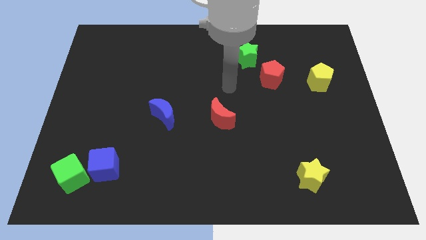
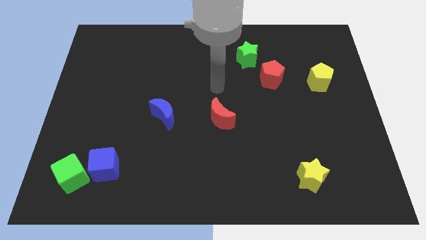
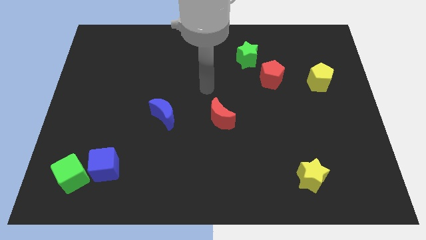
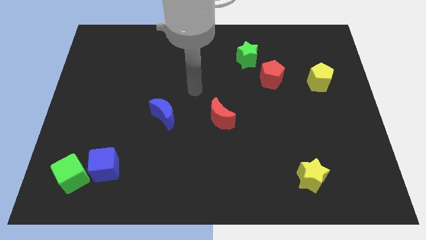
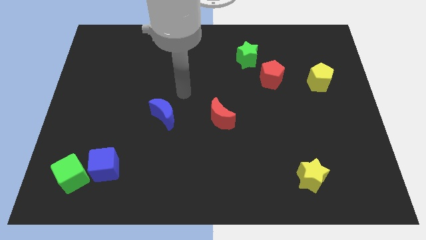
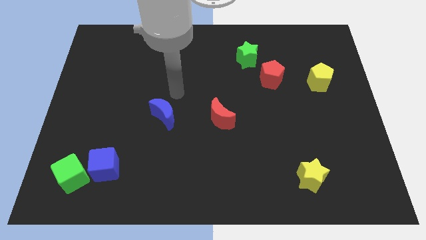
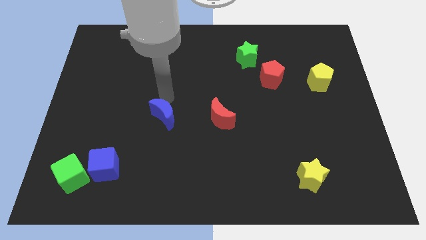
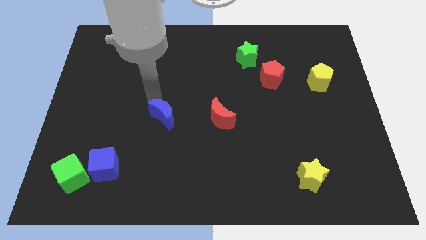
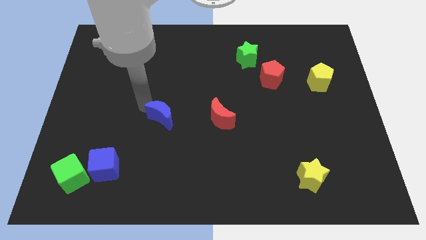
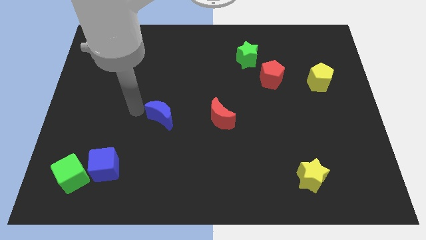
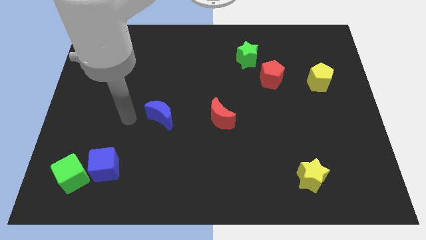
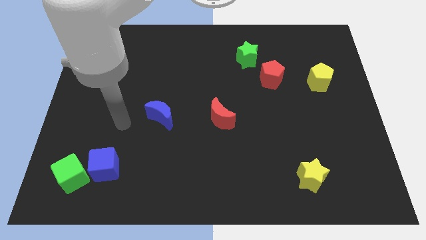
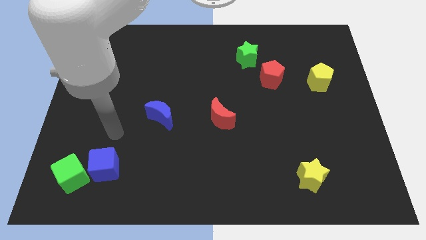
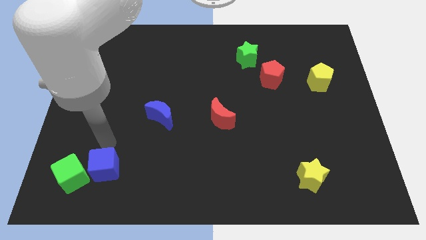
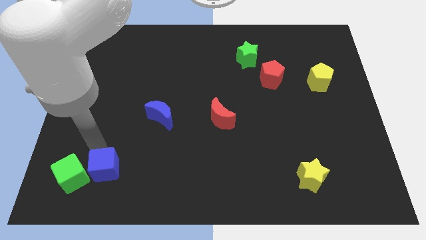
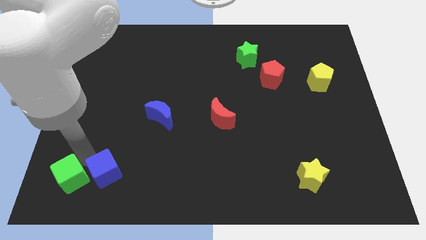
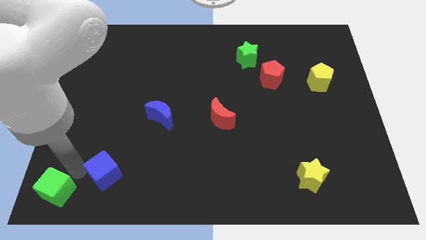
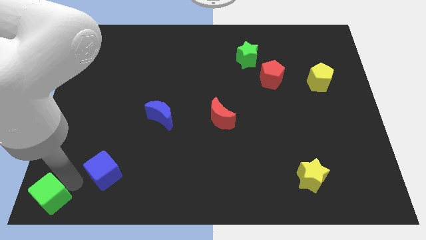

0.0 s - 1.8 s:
pull the blue cube apart from the green cube

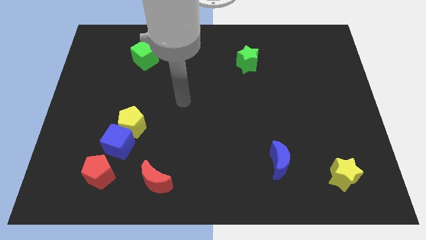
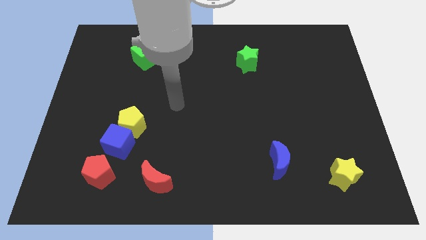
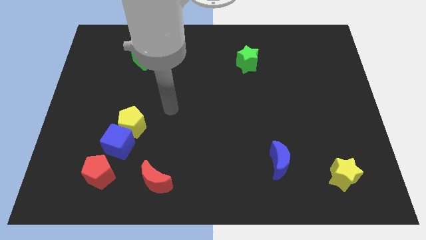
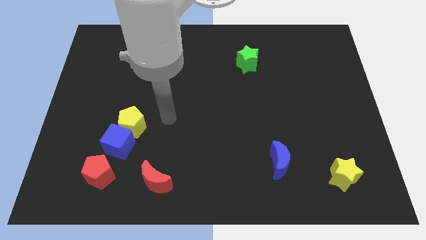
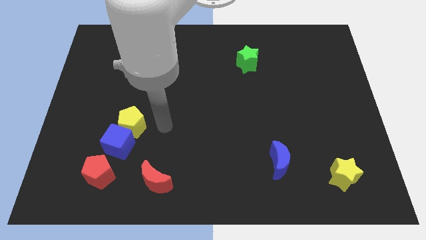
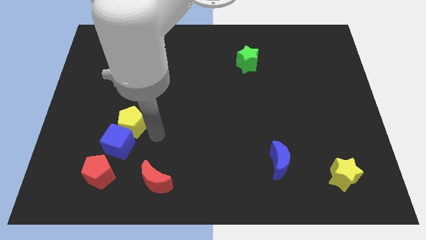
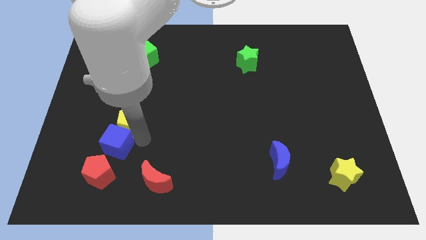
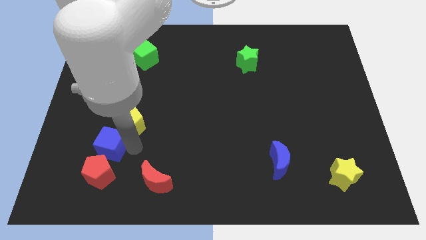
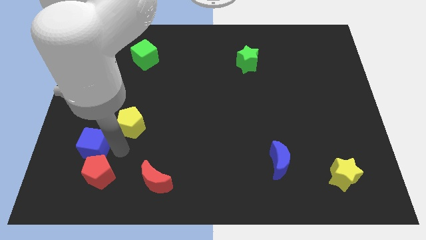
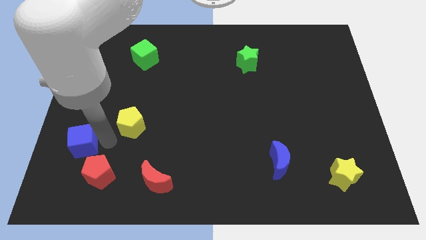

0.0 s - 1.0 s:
separate the yellow pentagon from the blue cube

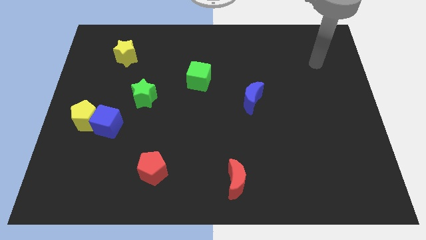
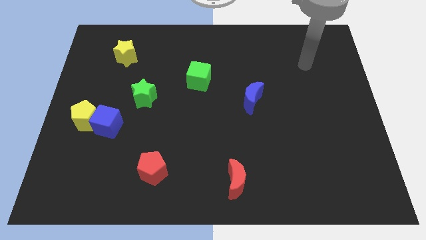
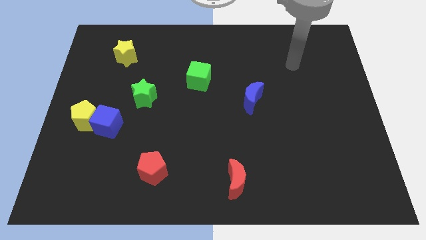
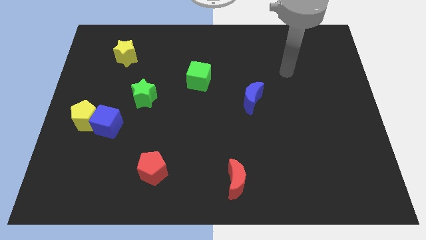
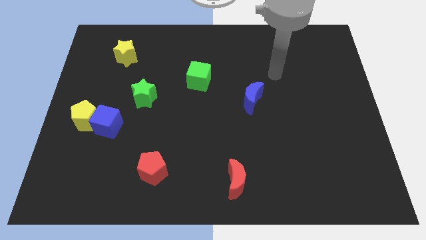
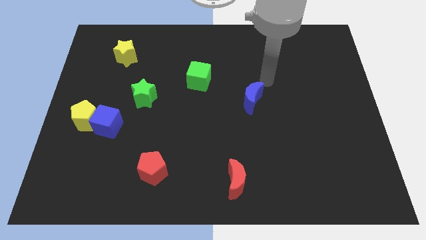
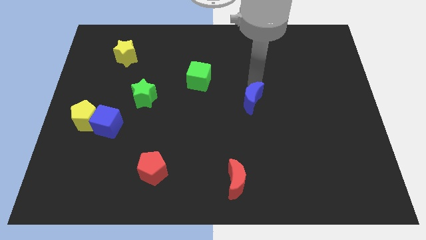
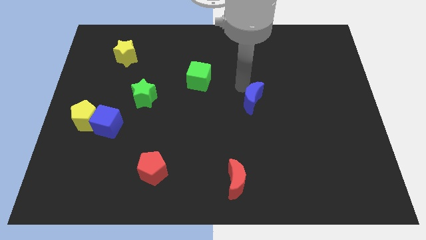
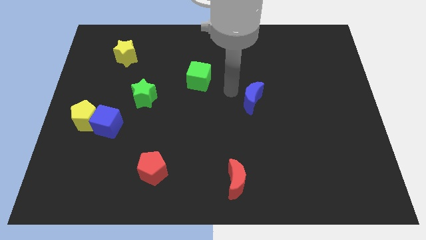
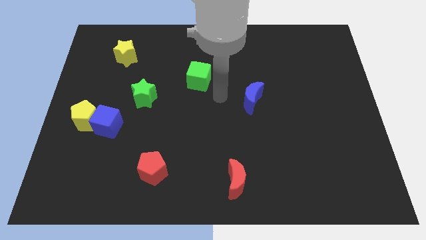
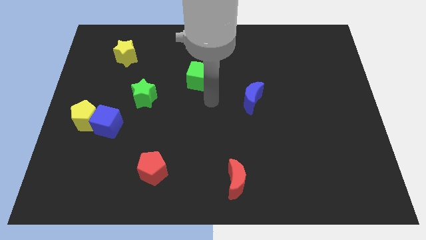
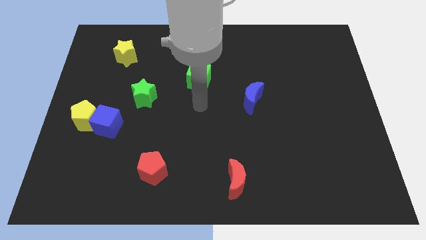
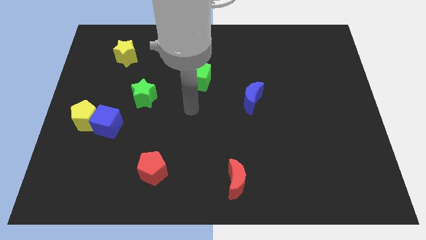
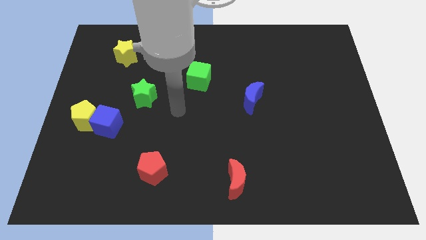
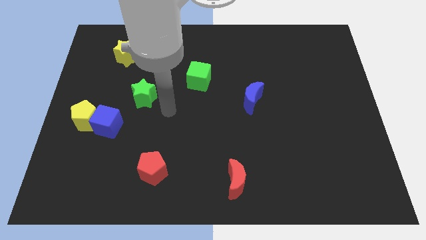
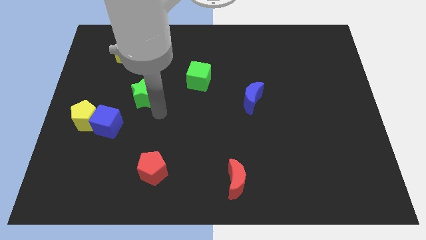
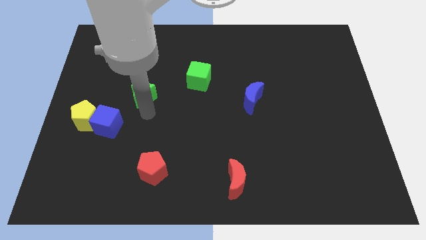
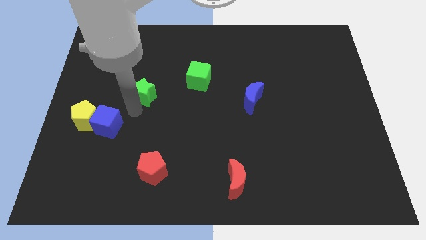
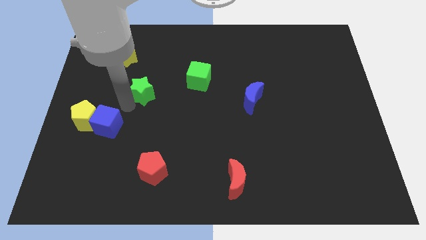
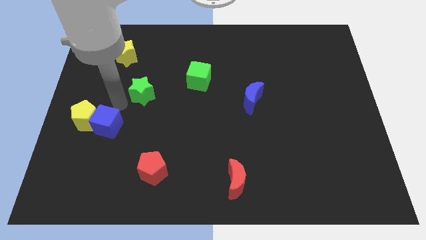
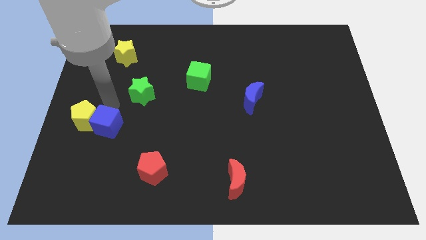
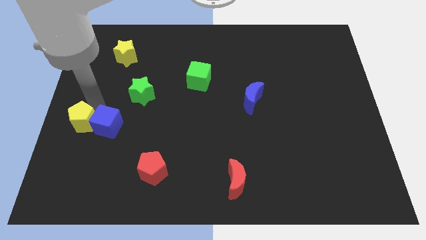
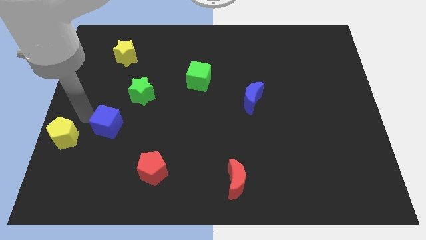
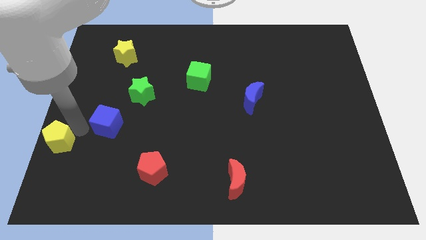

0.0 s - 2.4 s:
move the blue cube away from the yellow pentagon

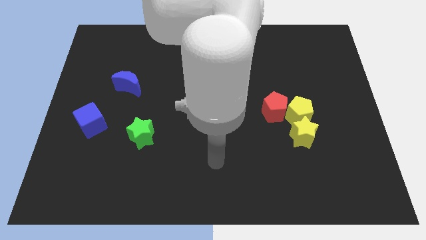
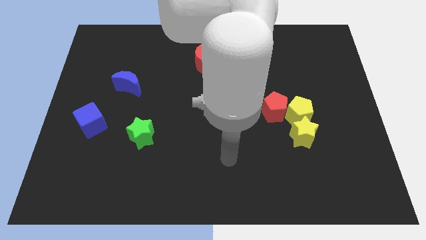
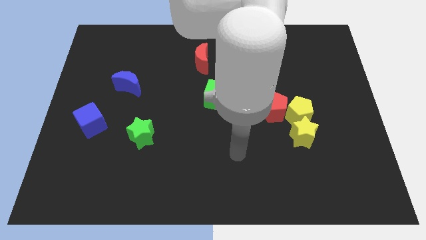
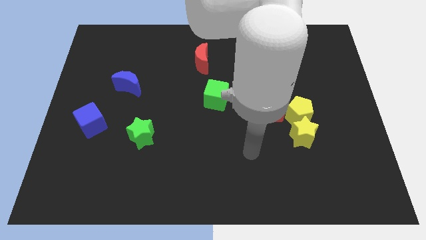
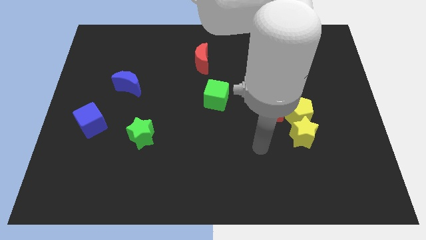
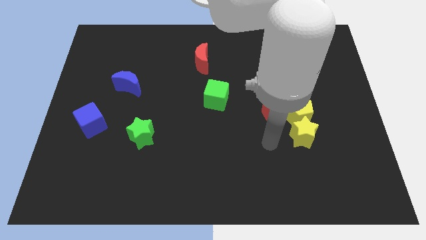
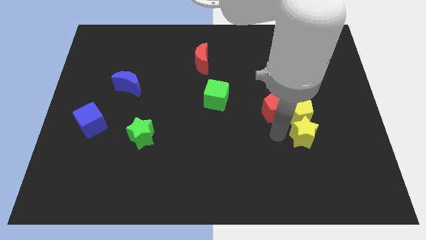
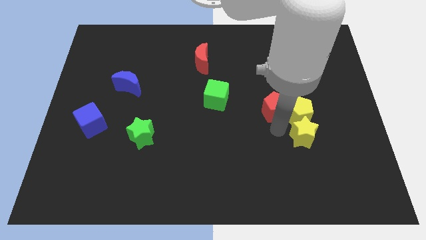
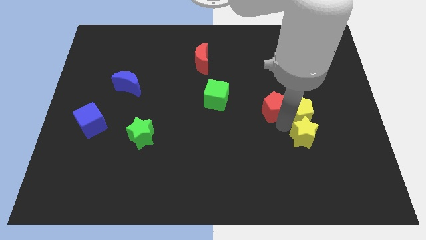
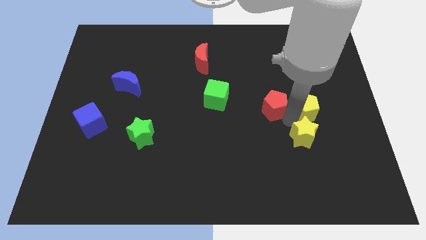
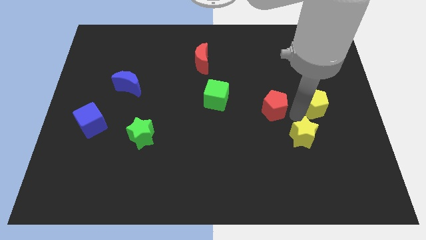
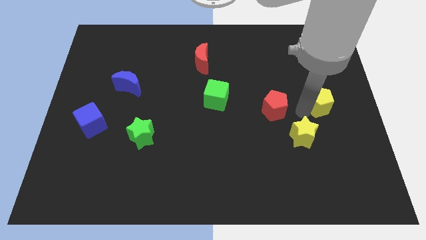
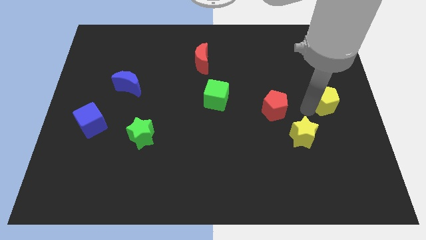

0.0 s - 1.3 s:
move the yellow pentagon away from the red pentagon and yellow star

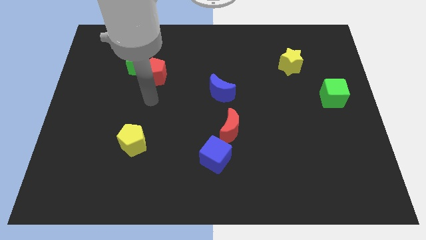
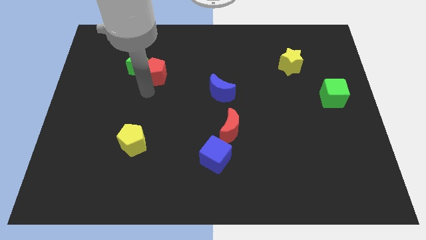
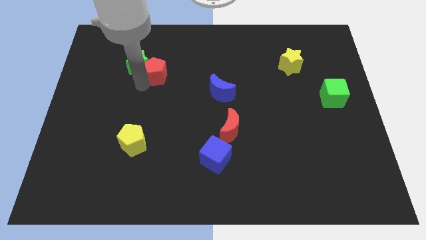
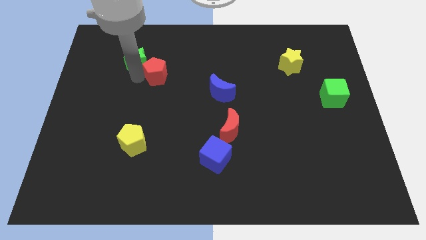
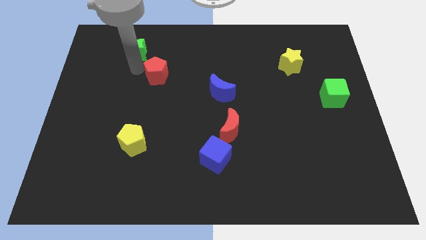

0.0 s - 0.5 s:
separate the red pentagon from the green star

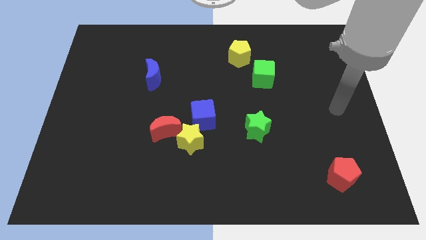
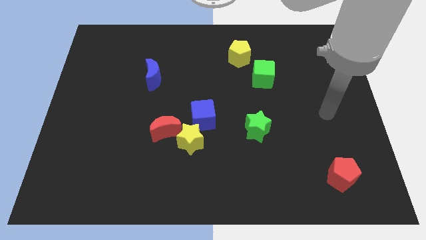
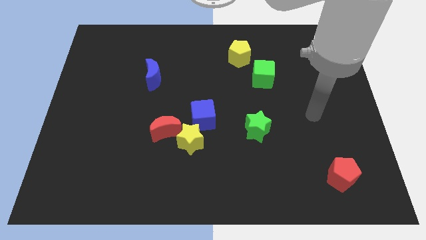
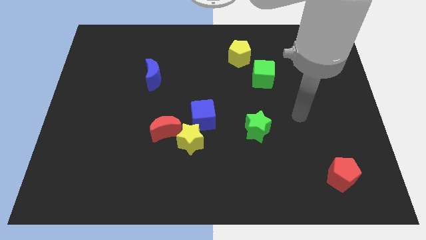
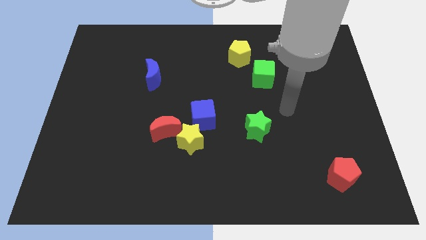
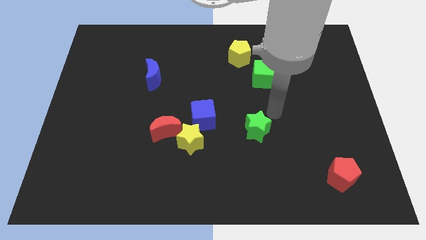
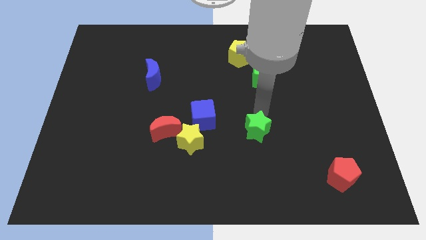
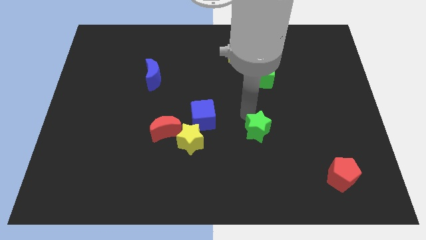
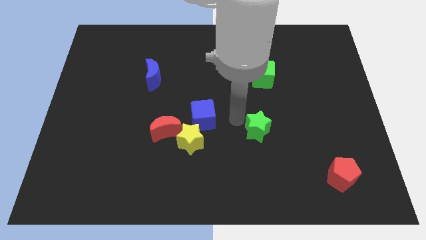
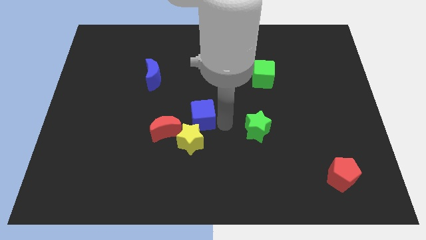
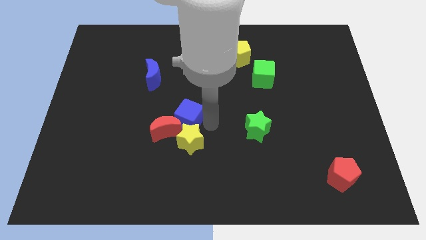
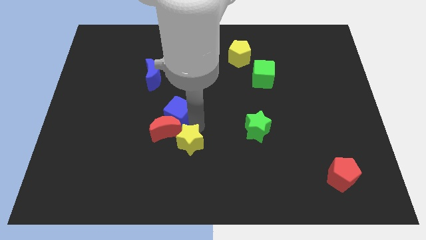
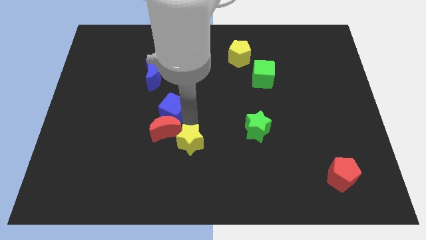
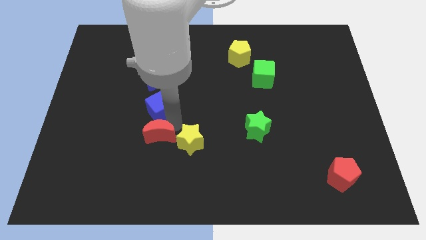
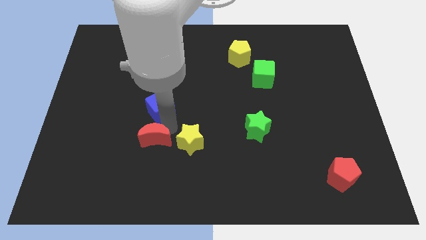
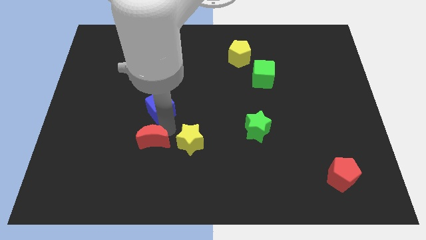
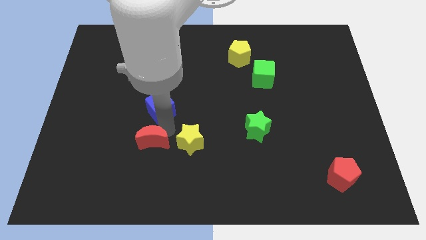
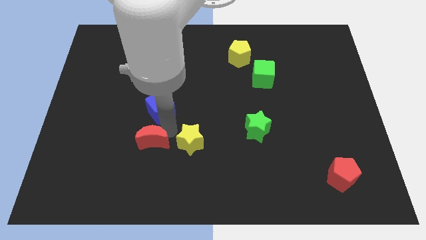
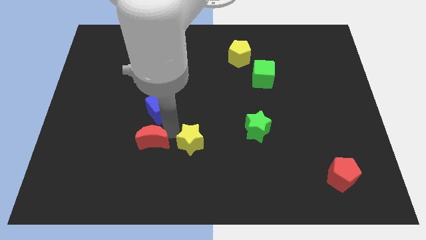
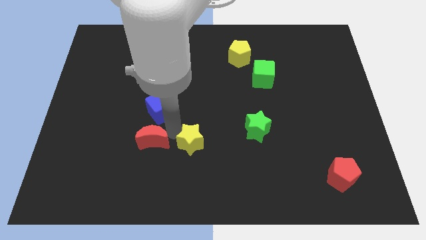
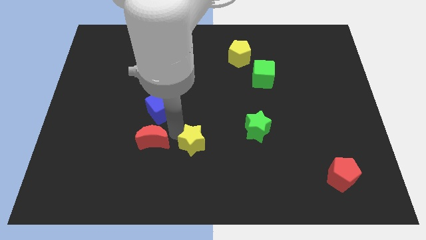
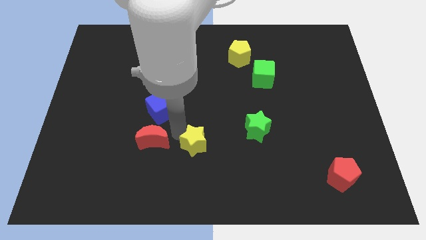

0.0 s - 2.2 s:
pull the yellow star apart from the red moon and blue cube
